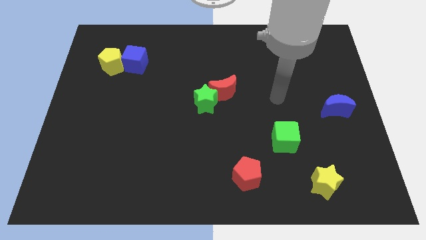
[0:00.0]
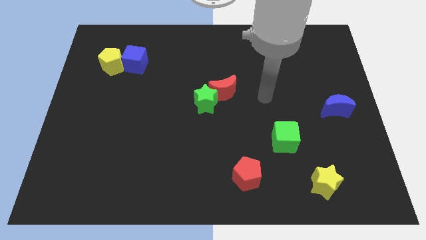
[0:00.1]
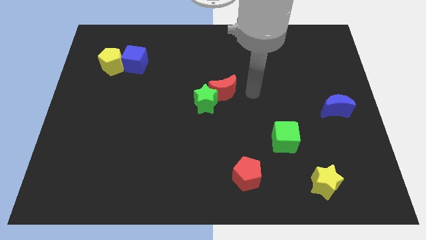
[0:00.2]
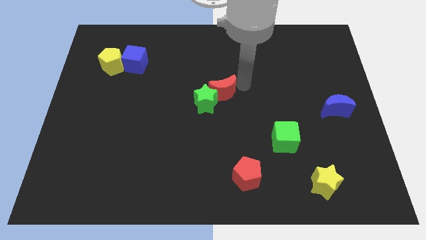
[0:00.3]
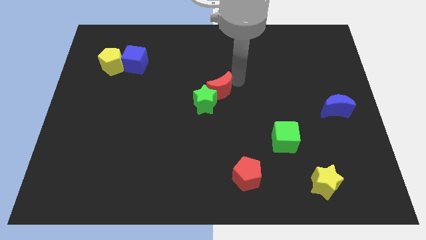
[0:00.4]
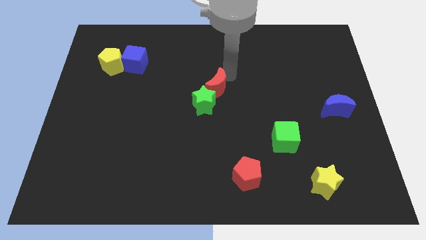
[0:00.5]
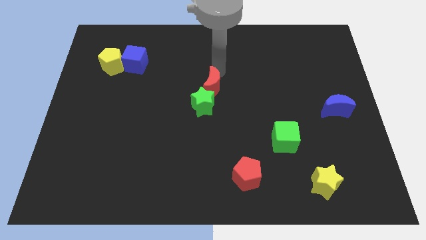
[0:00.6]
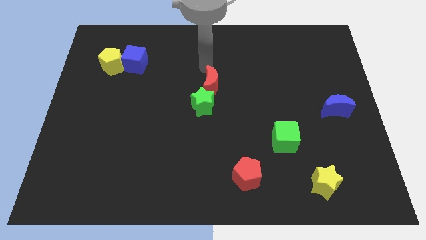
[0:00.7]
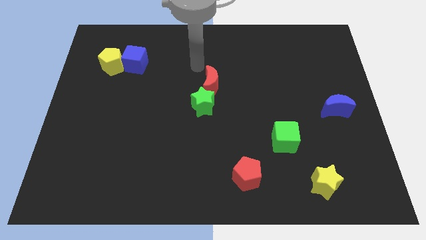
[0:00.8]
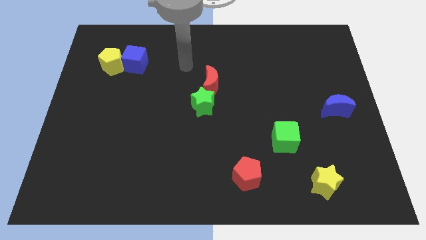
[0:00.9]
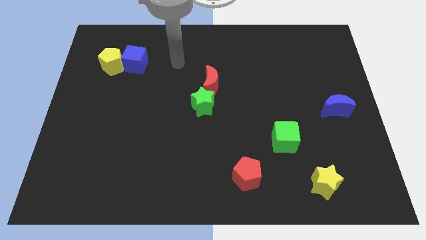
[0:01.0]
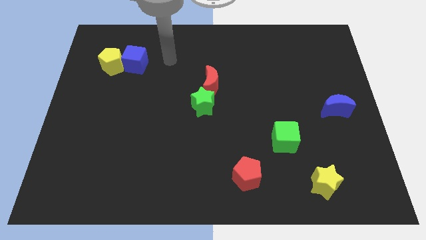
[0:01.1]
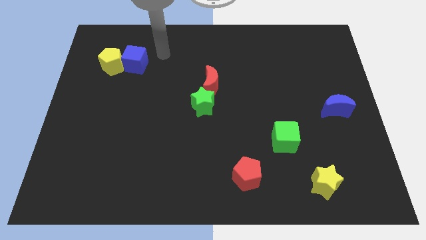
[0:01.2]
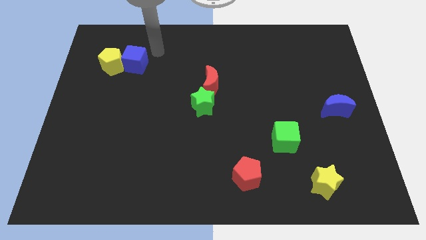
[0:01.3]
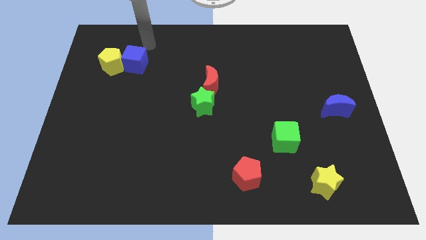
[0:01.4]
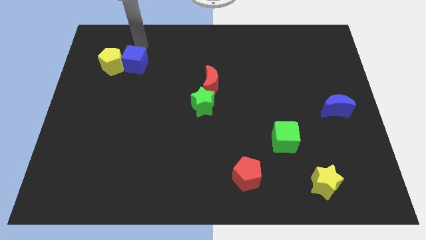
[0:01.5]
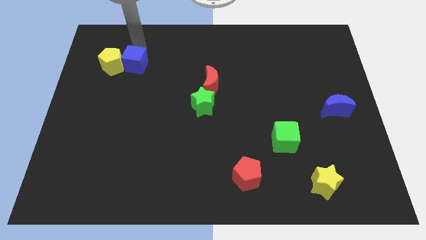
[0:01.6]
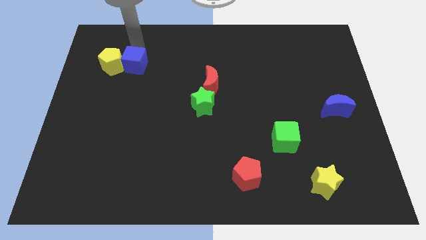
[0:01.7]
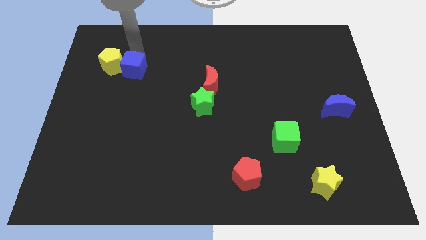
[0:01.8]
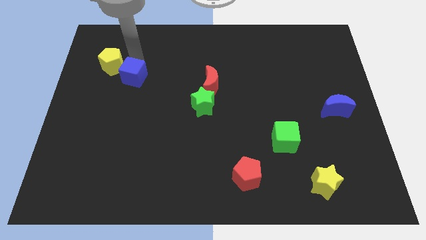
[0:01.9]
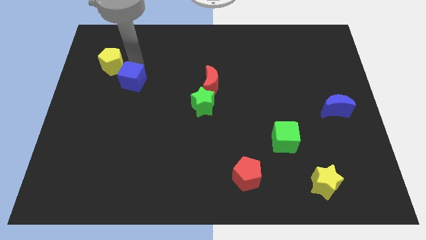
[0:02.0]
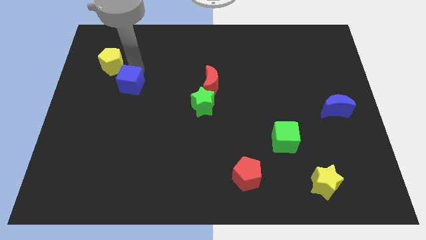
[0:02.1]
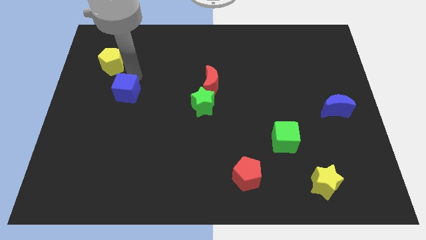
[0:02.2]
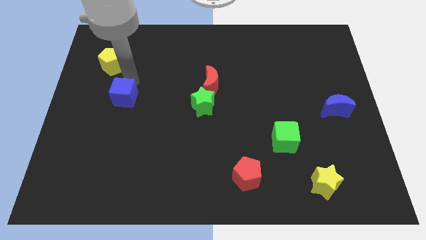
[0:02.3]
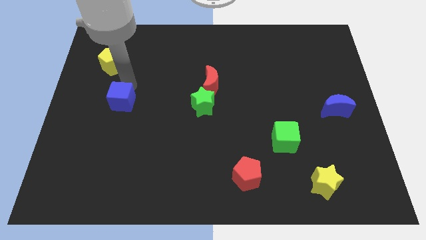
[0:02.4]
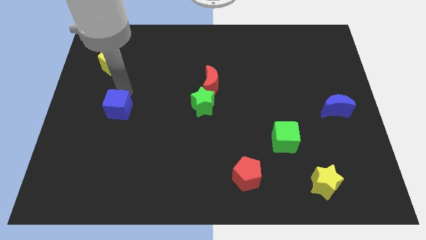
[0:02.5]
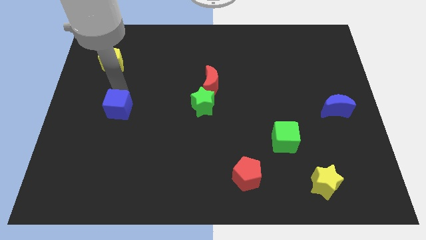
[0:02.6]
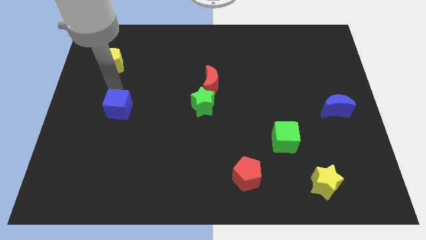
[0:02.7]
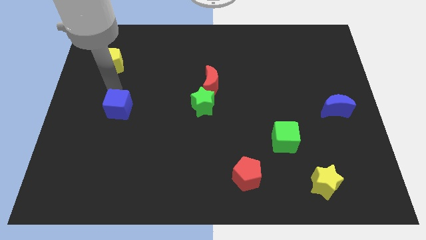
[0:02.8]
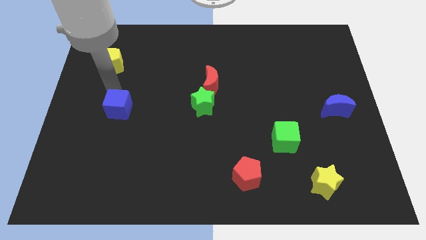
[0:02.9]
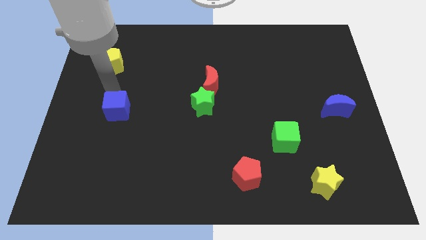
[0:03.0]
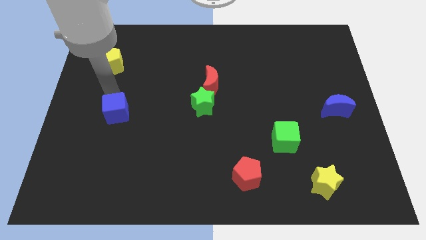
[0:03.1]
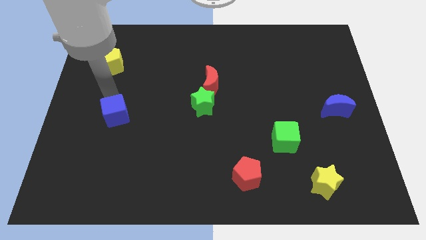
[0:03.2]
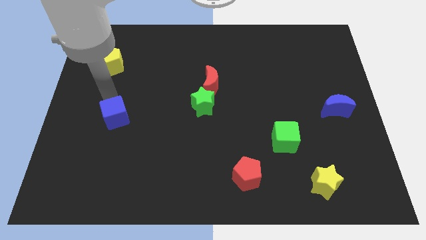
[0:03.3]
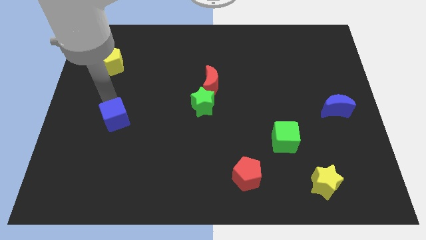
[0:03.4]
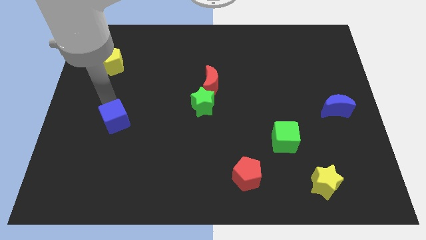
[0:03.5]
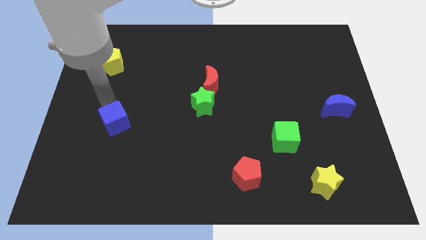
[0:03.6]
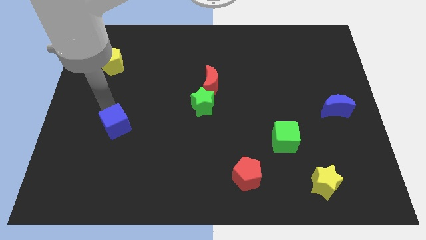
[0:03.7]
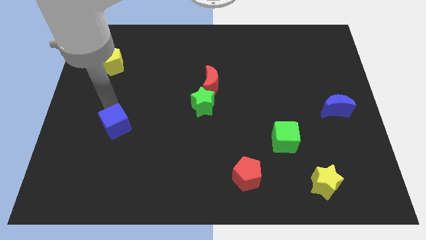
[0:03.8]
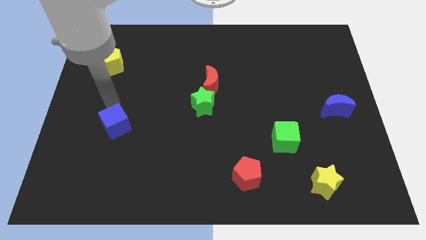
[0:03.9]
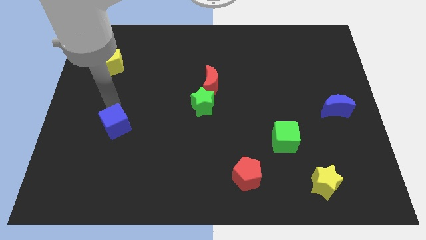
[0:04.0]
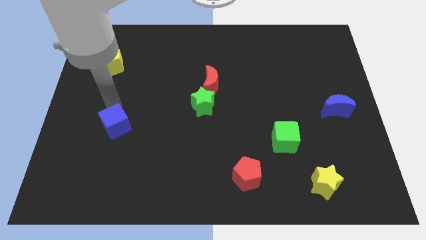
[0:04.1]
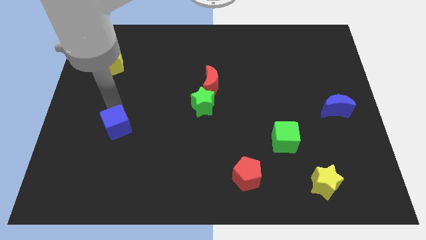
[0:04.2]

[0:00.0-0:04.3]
push the blue cube downwards

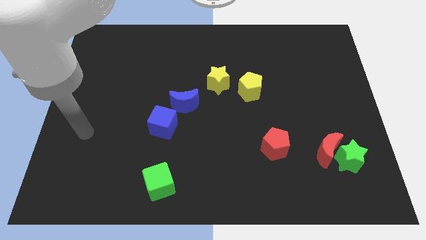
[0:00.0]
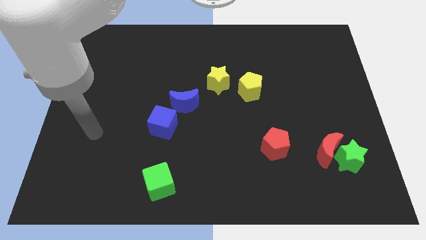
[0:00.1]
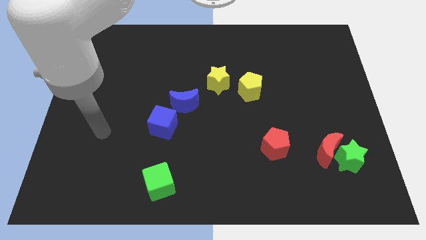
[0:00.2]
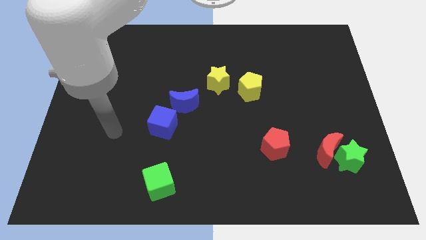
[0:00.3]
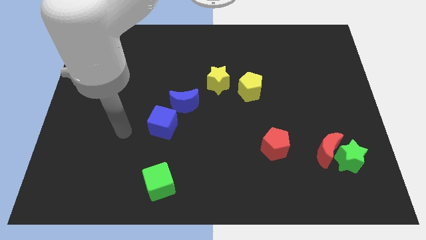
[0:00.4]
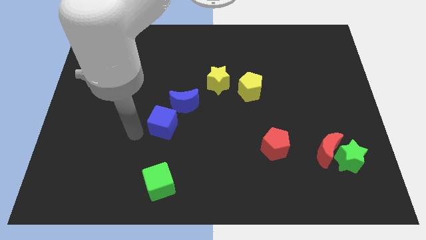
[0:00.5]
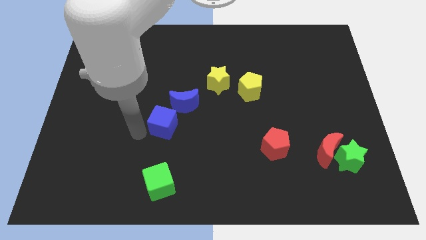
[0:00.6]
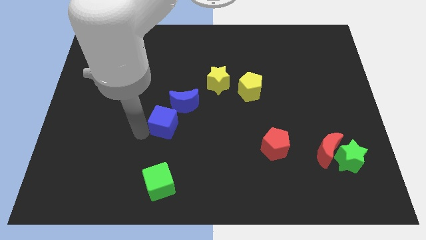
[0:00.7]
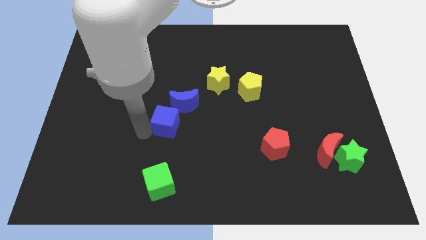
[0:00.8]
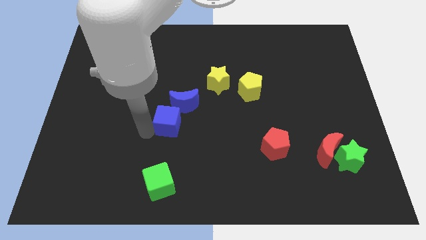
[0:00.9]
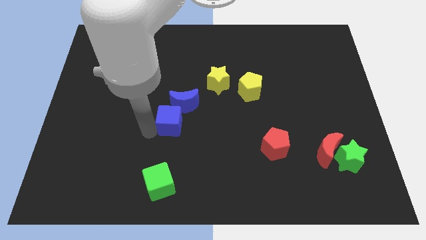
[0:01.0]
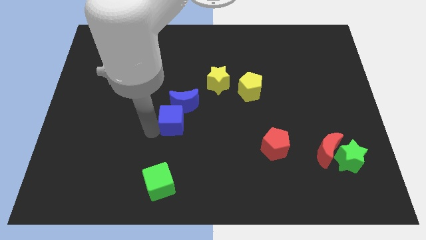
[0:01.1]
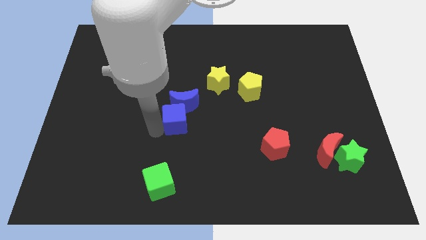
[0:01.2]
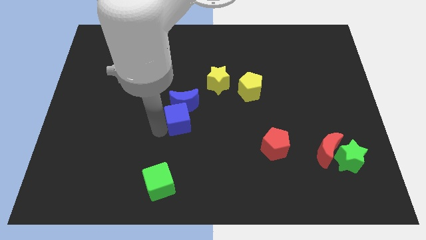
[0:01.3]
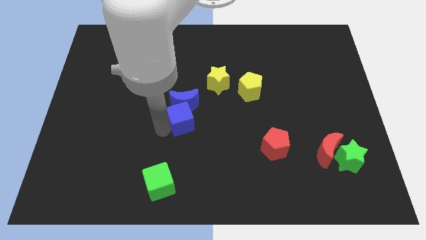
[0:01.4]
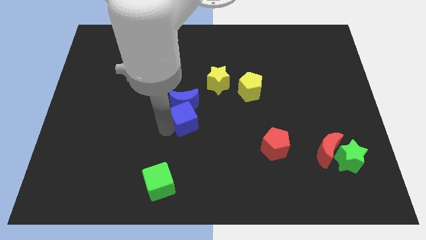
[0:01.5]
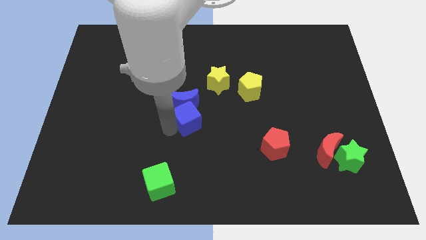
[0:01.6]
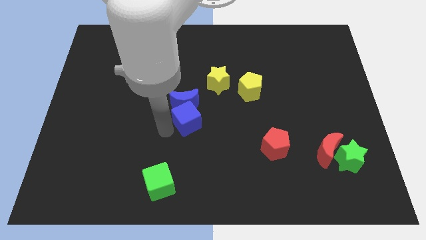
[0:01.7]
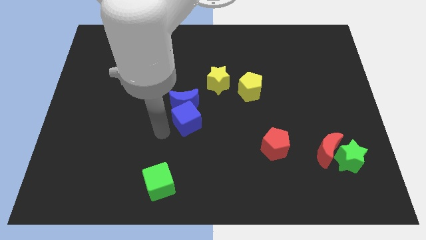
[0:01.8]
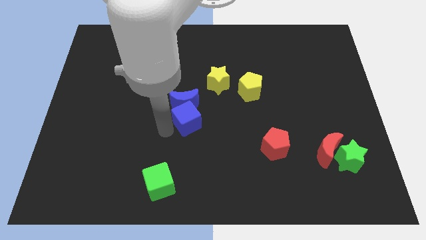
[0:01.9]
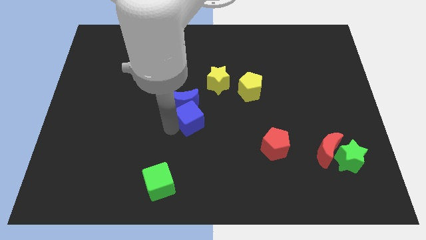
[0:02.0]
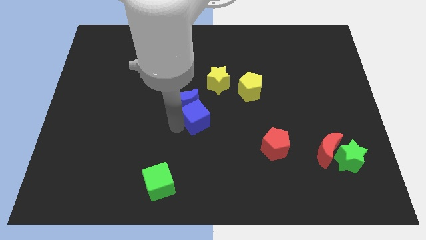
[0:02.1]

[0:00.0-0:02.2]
slightly slide the blue cube to the right

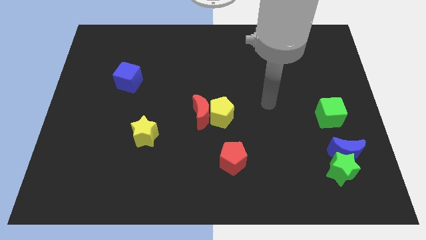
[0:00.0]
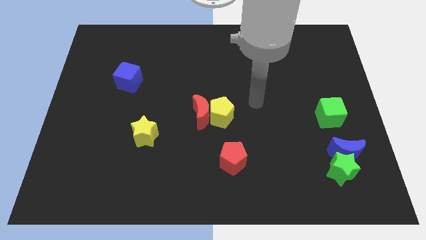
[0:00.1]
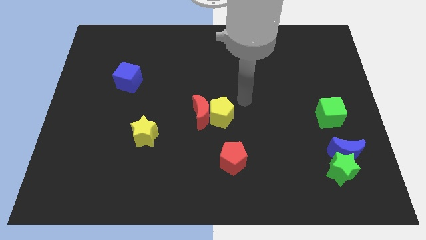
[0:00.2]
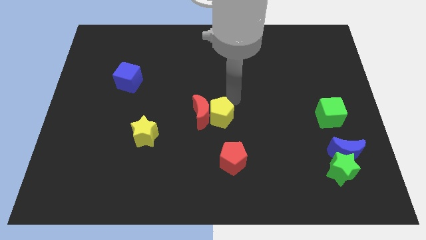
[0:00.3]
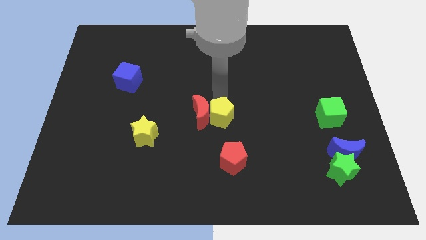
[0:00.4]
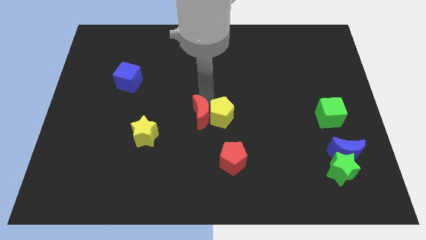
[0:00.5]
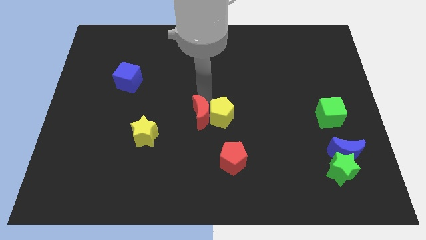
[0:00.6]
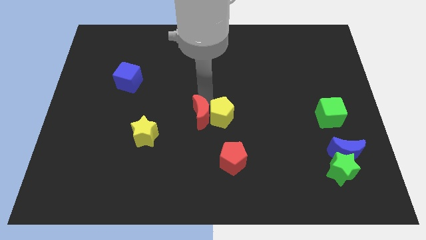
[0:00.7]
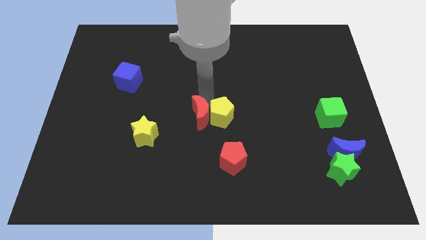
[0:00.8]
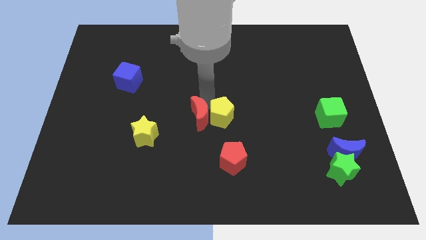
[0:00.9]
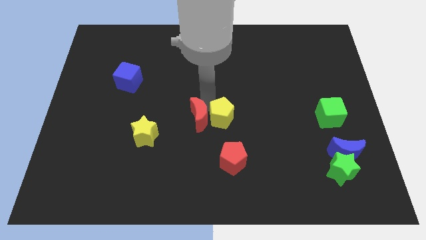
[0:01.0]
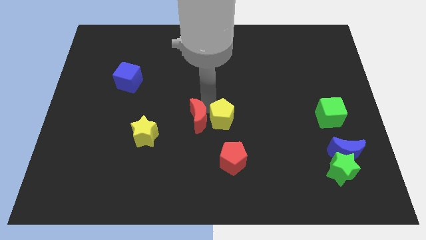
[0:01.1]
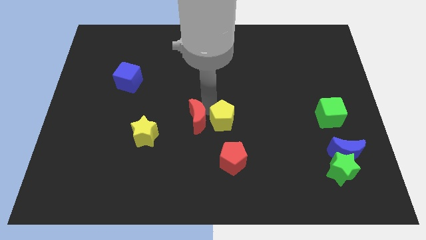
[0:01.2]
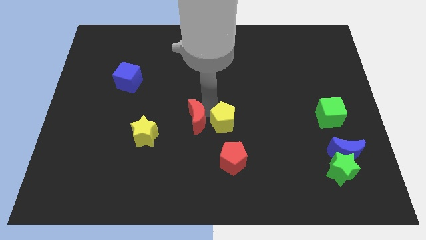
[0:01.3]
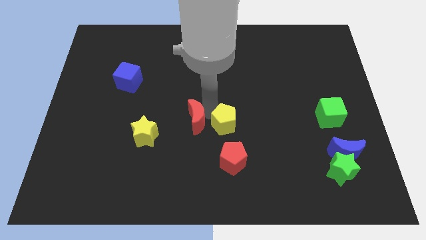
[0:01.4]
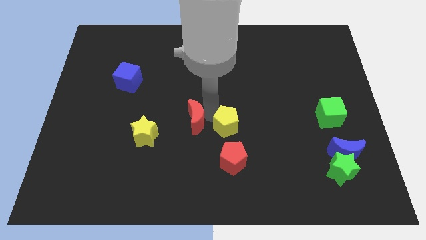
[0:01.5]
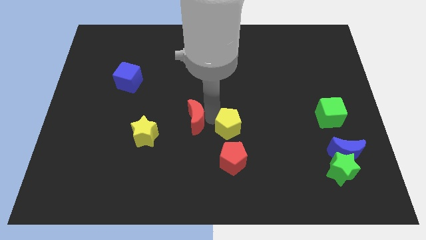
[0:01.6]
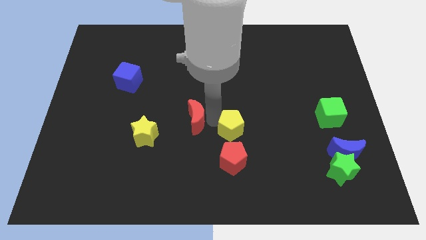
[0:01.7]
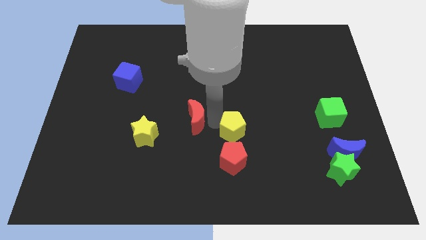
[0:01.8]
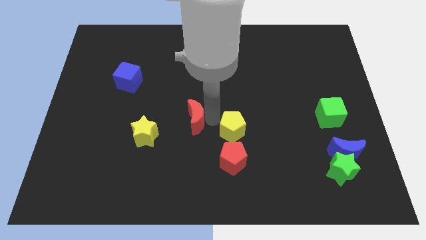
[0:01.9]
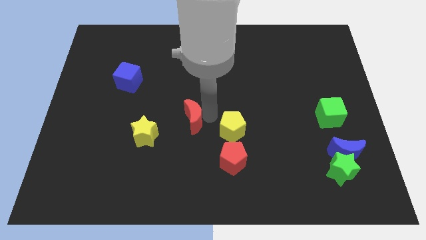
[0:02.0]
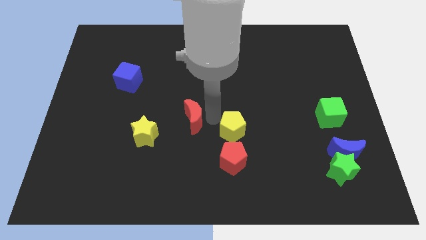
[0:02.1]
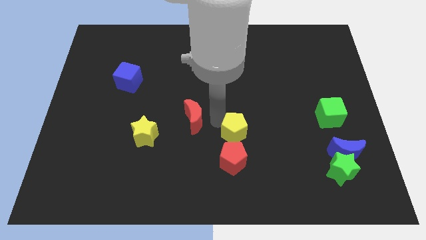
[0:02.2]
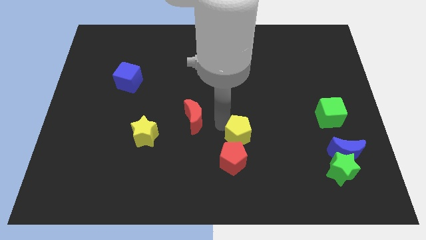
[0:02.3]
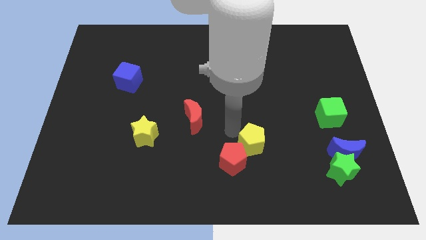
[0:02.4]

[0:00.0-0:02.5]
slightly move the yellow pentagon down and right
